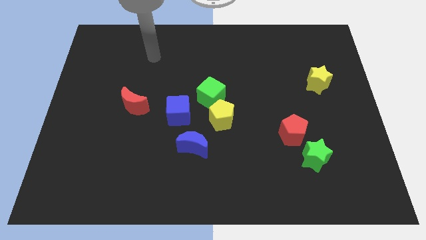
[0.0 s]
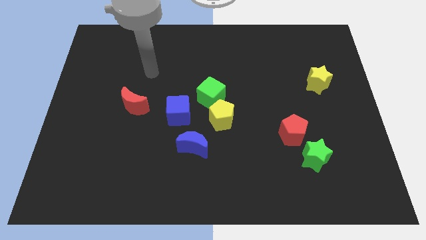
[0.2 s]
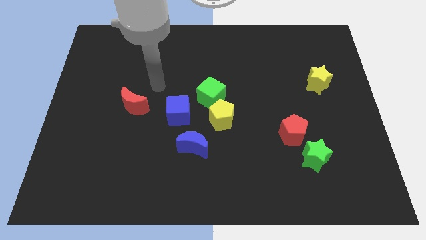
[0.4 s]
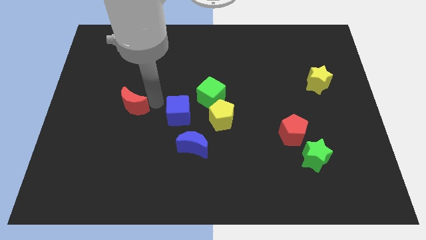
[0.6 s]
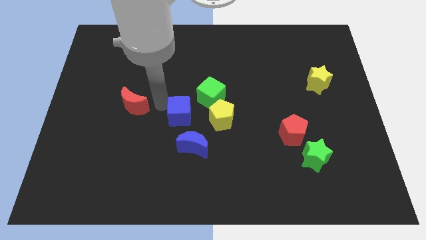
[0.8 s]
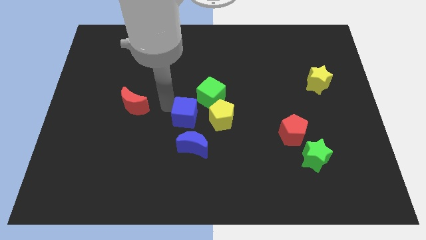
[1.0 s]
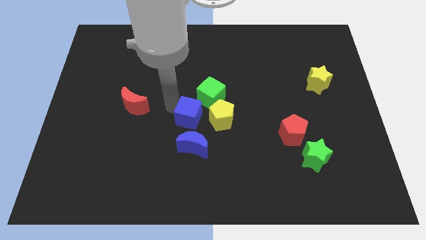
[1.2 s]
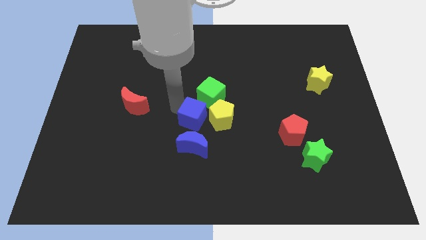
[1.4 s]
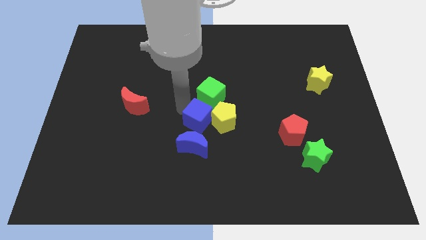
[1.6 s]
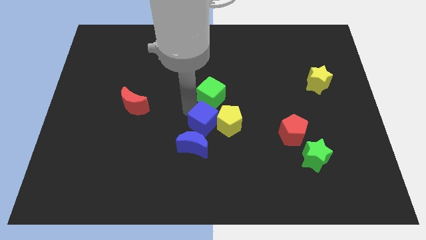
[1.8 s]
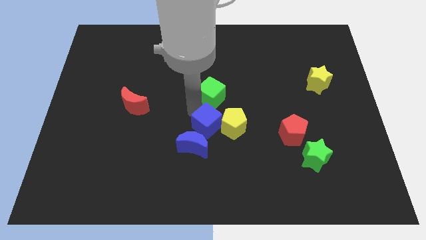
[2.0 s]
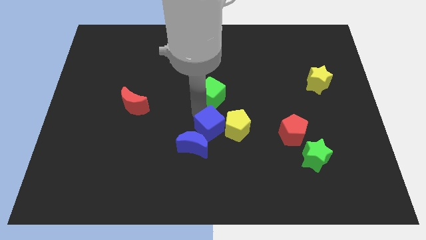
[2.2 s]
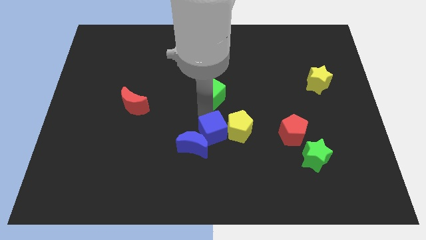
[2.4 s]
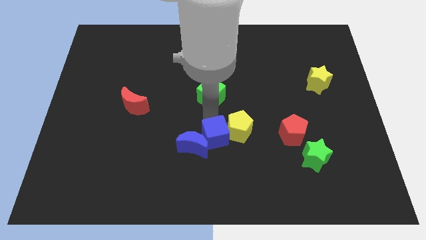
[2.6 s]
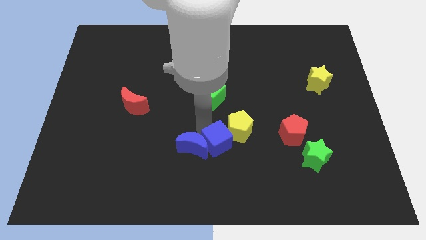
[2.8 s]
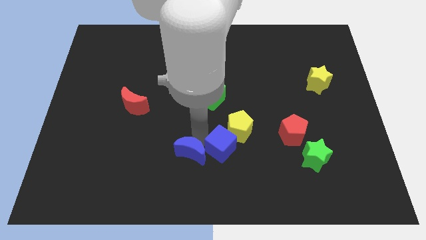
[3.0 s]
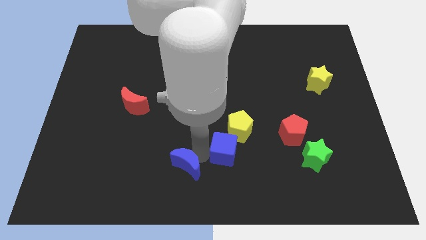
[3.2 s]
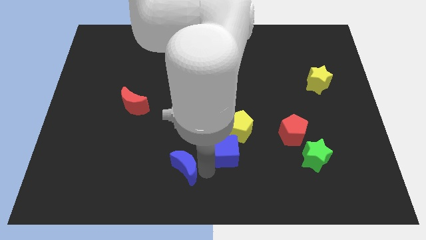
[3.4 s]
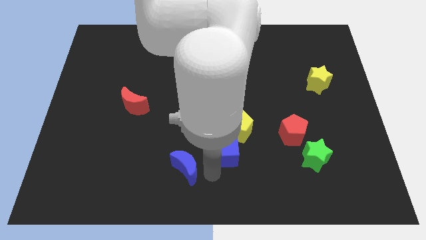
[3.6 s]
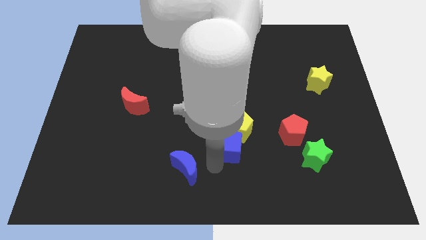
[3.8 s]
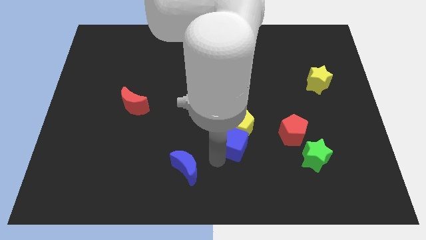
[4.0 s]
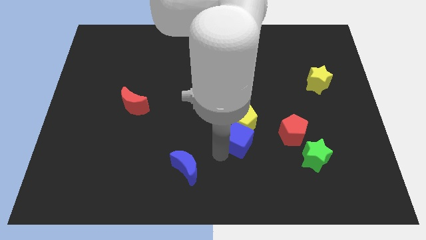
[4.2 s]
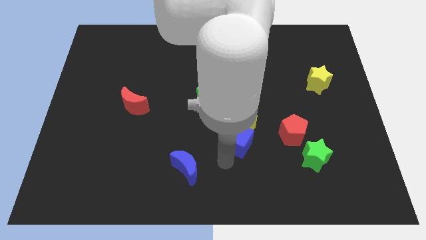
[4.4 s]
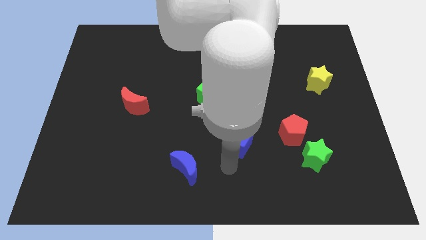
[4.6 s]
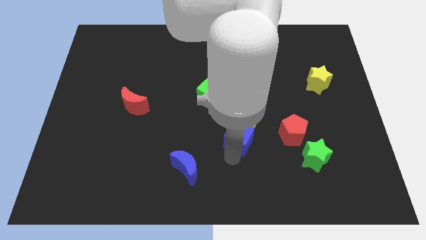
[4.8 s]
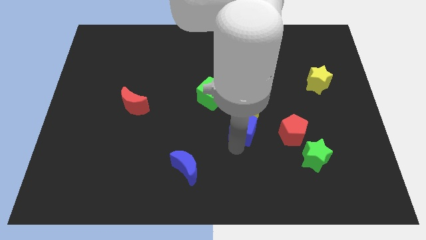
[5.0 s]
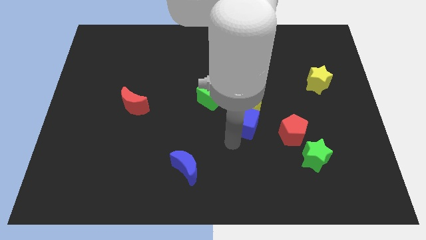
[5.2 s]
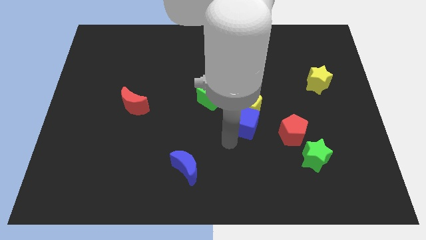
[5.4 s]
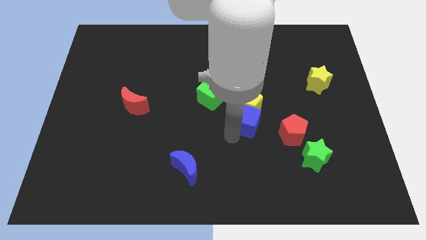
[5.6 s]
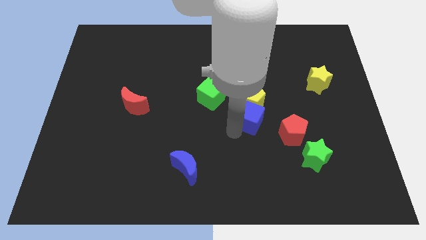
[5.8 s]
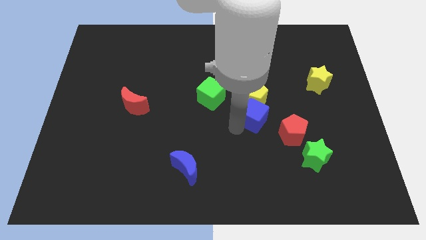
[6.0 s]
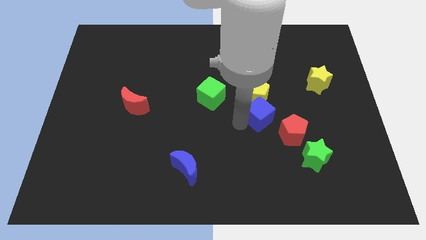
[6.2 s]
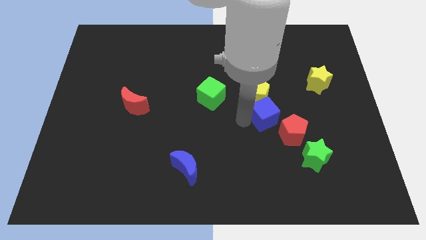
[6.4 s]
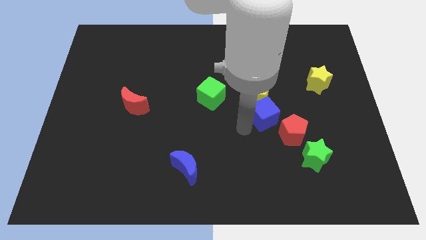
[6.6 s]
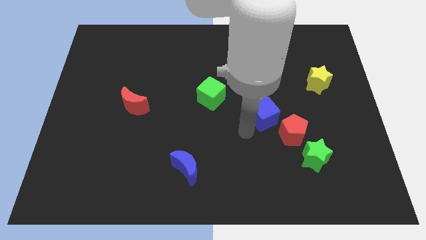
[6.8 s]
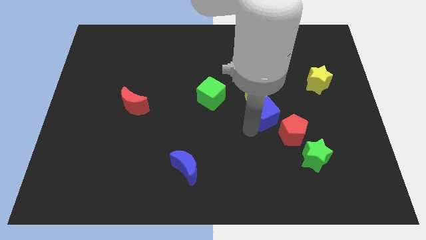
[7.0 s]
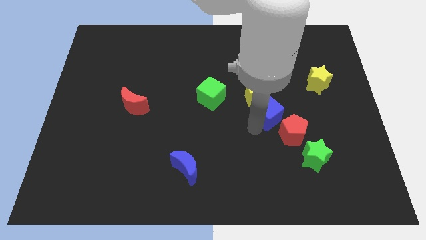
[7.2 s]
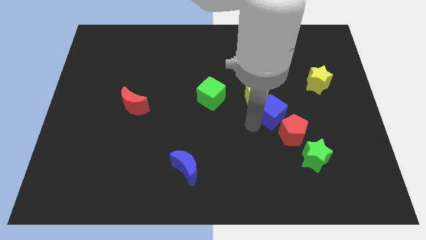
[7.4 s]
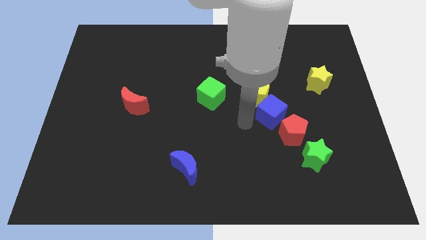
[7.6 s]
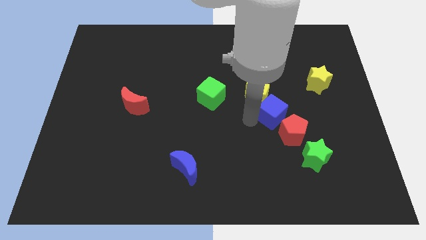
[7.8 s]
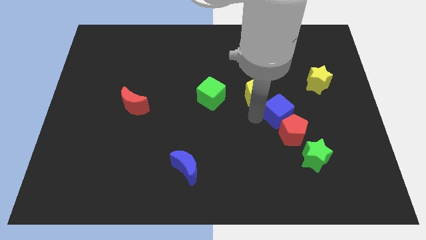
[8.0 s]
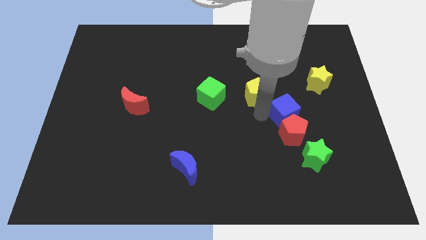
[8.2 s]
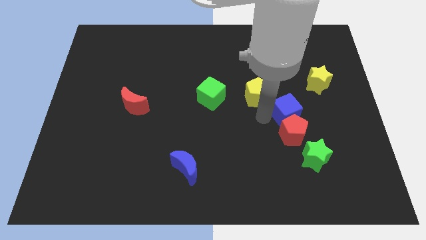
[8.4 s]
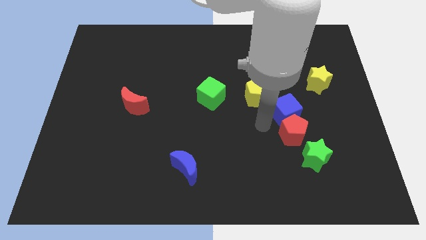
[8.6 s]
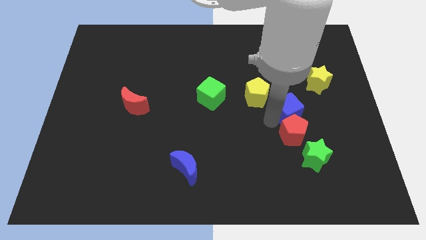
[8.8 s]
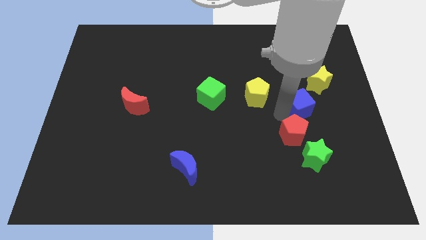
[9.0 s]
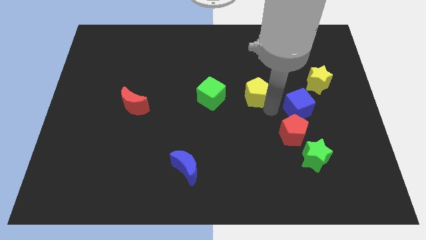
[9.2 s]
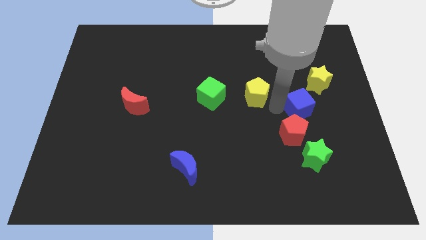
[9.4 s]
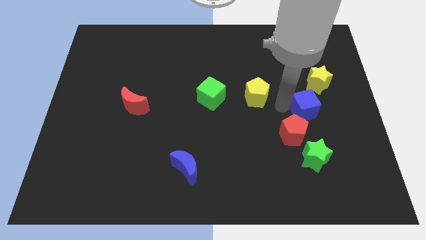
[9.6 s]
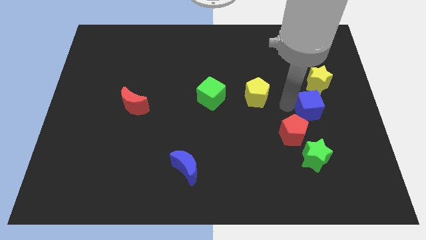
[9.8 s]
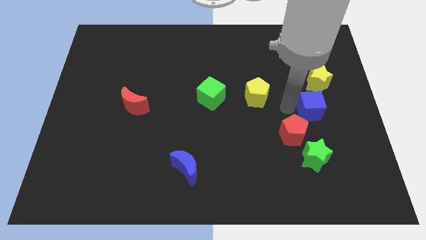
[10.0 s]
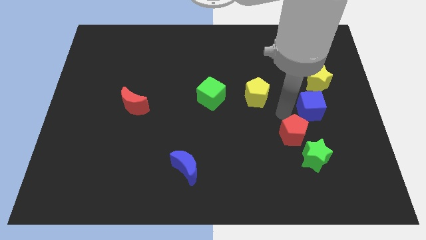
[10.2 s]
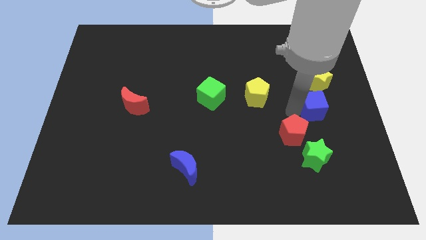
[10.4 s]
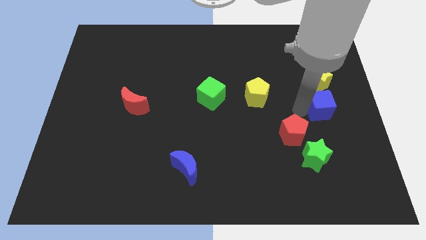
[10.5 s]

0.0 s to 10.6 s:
push the blue cube to the right side
